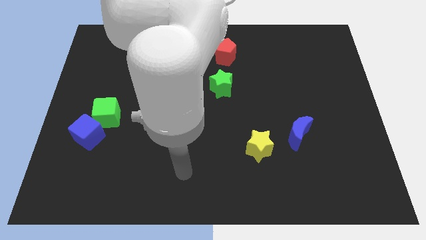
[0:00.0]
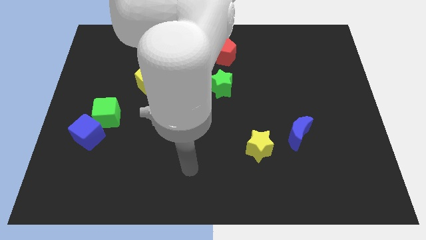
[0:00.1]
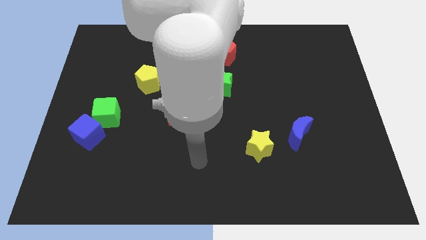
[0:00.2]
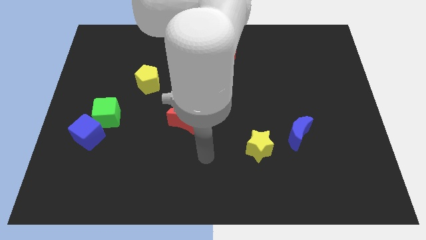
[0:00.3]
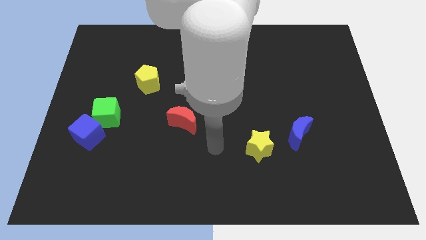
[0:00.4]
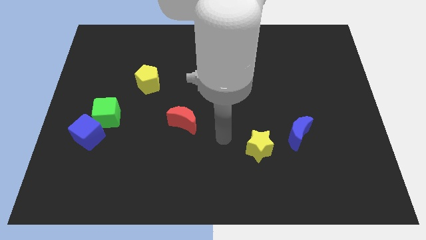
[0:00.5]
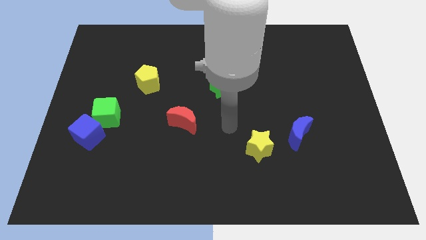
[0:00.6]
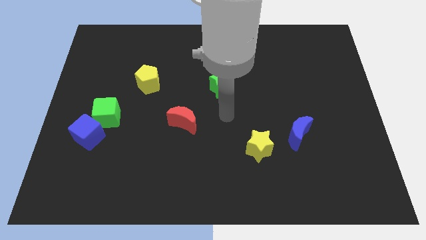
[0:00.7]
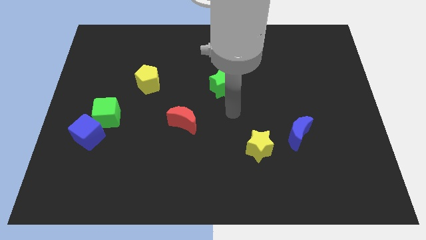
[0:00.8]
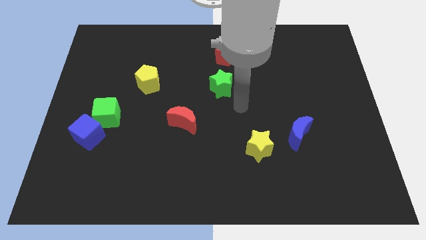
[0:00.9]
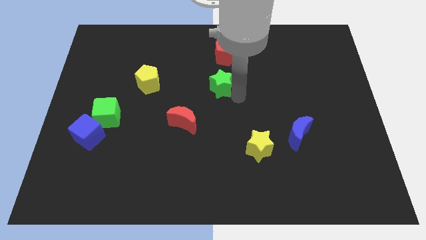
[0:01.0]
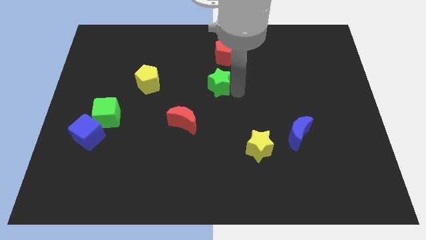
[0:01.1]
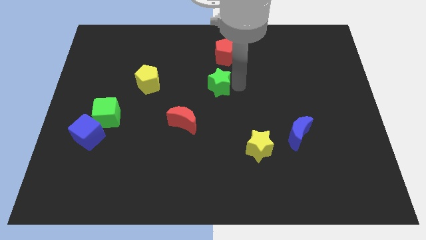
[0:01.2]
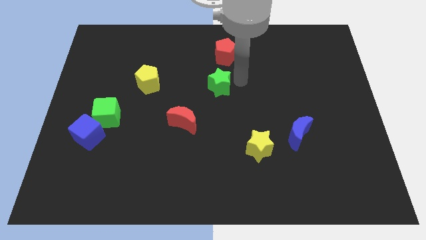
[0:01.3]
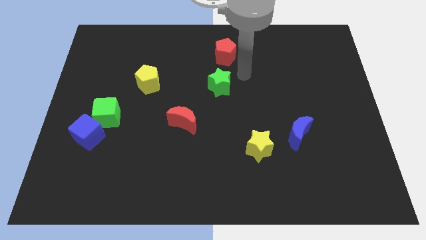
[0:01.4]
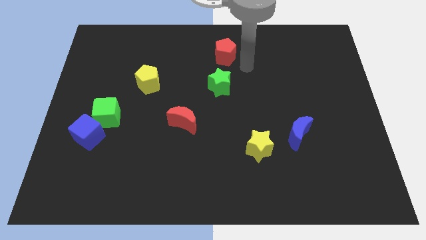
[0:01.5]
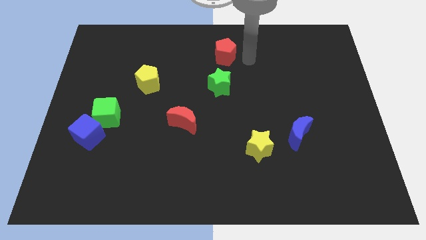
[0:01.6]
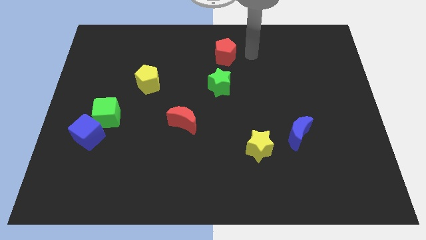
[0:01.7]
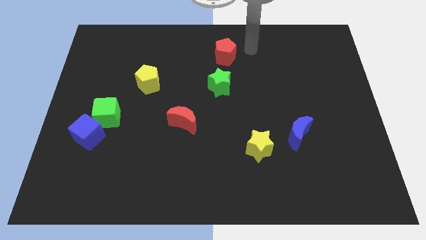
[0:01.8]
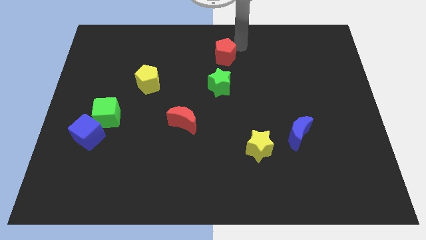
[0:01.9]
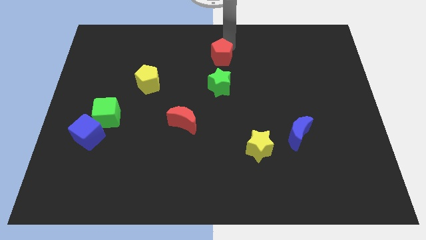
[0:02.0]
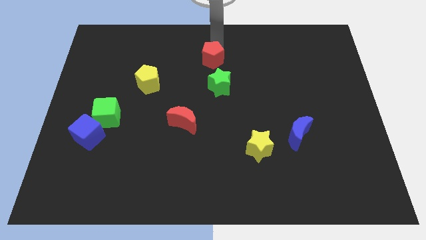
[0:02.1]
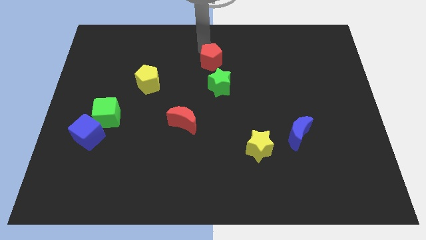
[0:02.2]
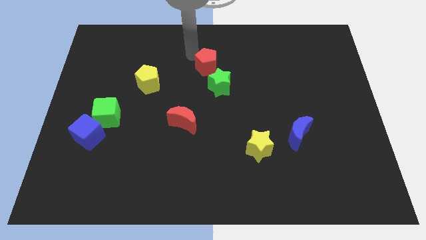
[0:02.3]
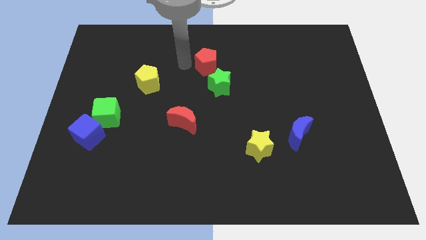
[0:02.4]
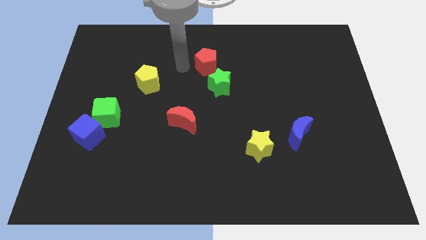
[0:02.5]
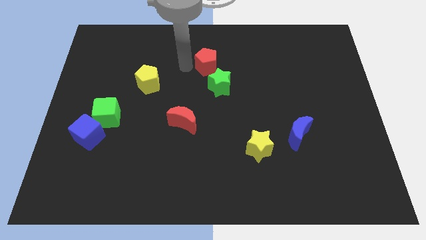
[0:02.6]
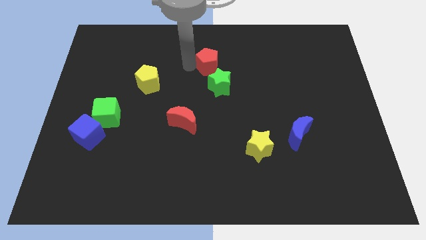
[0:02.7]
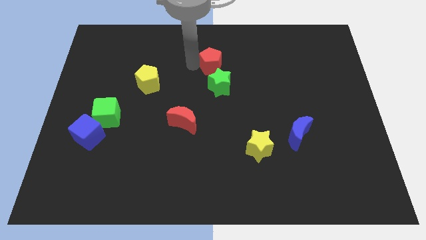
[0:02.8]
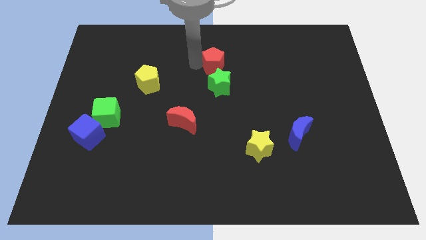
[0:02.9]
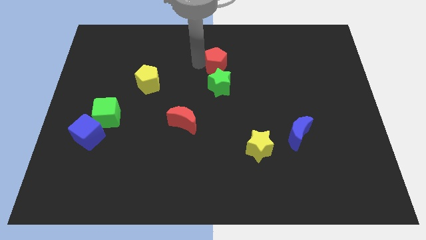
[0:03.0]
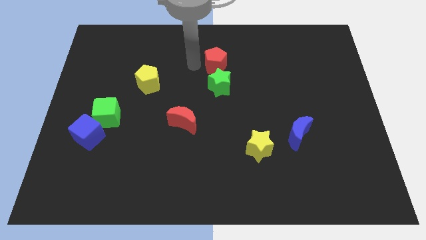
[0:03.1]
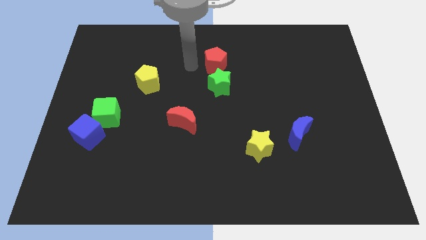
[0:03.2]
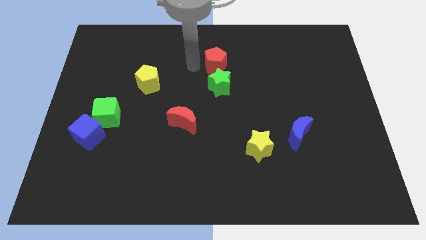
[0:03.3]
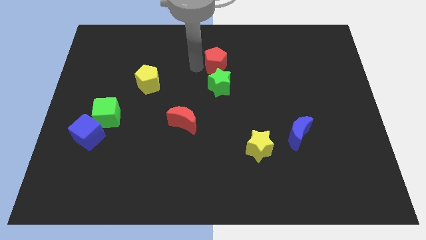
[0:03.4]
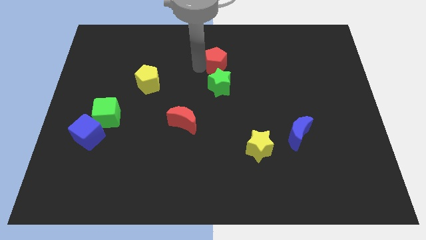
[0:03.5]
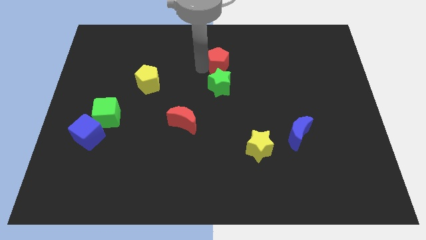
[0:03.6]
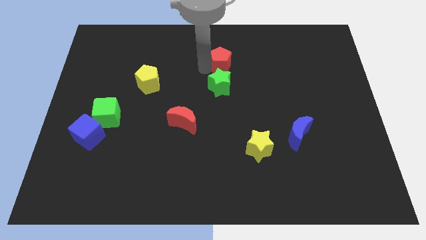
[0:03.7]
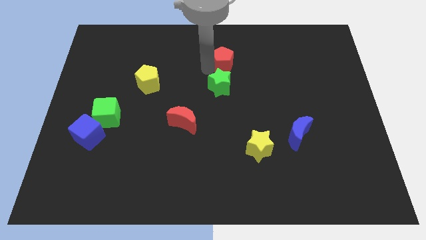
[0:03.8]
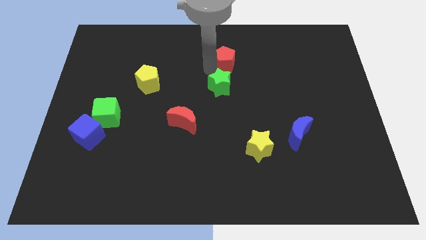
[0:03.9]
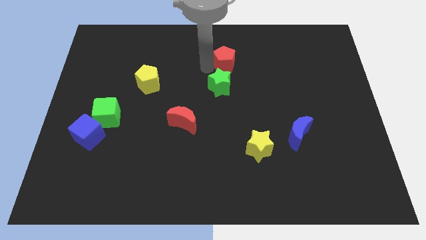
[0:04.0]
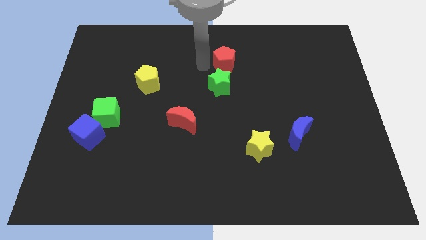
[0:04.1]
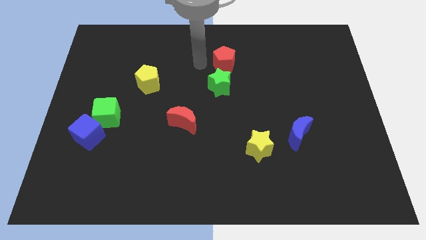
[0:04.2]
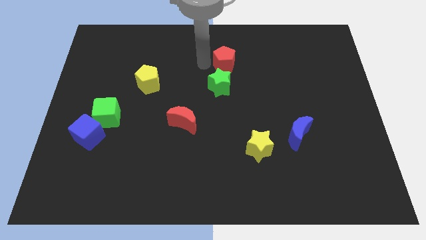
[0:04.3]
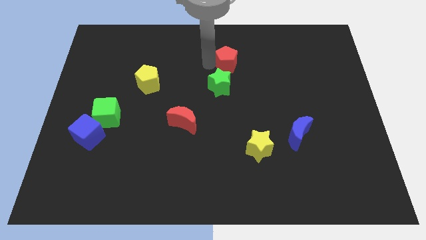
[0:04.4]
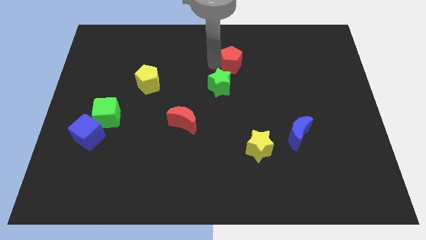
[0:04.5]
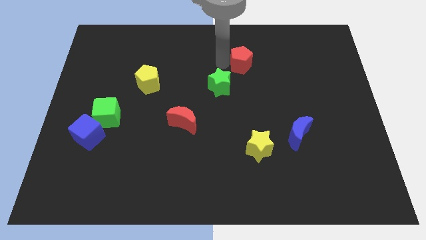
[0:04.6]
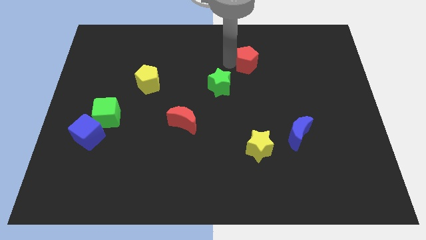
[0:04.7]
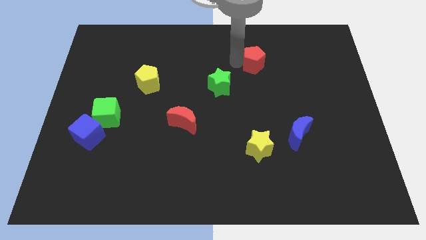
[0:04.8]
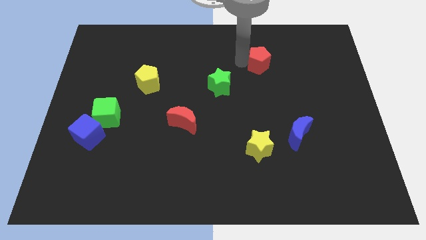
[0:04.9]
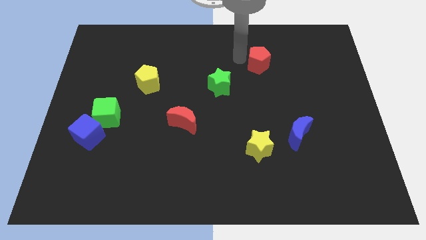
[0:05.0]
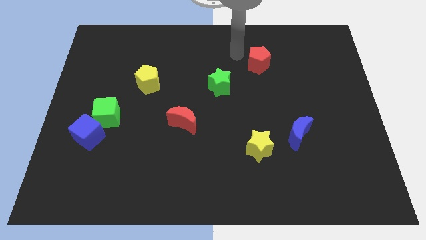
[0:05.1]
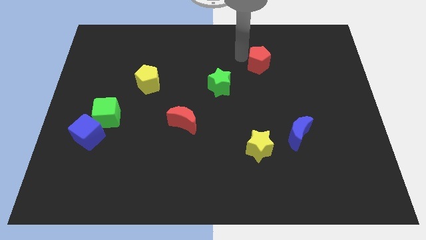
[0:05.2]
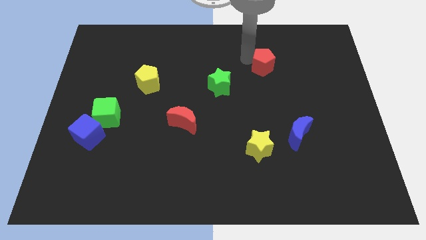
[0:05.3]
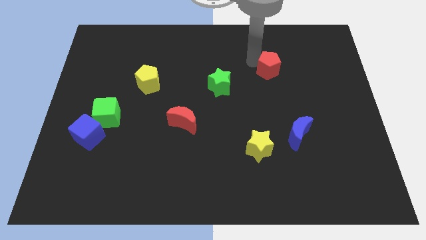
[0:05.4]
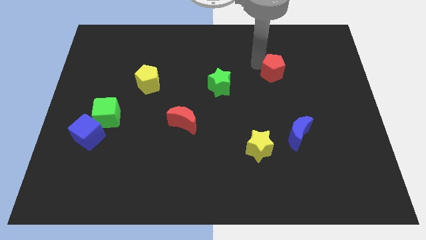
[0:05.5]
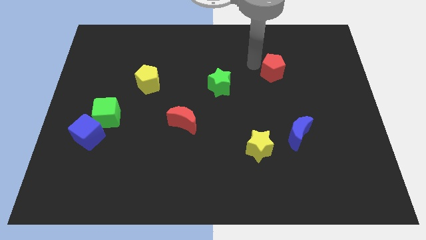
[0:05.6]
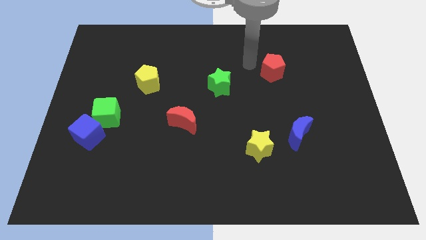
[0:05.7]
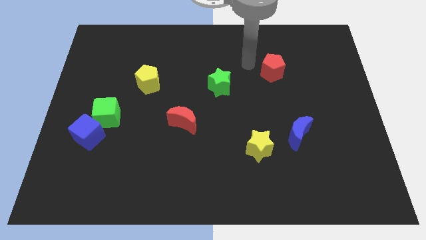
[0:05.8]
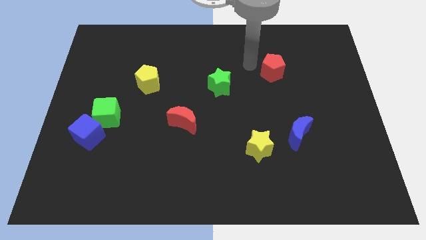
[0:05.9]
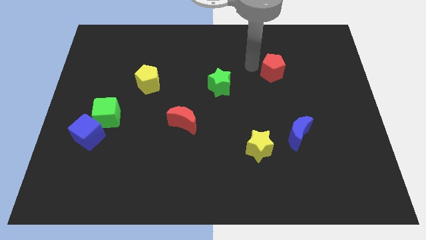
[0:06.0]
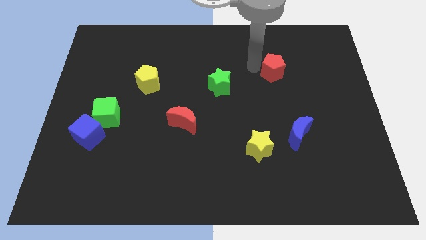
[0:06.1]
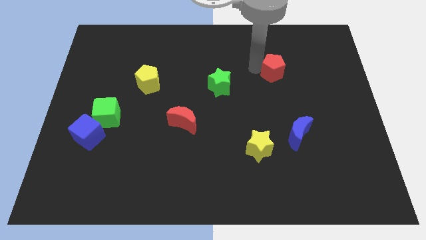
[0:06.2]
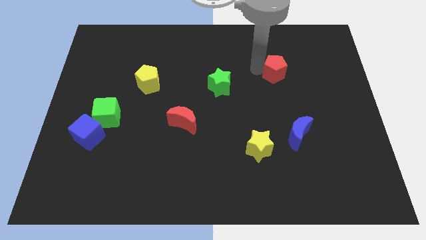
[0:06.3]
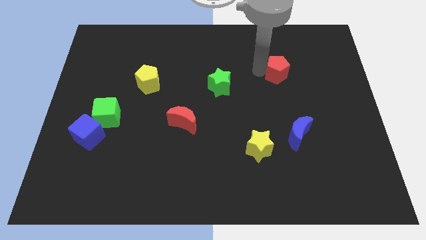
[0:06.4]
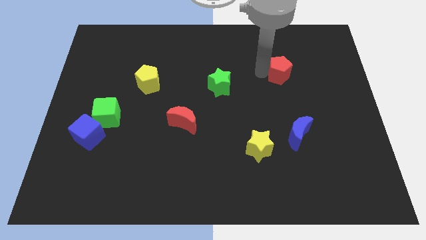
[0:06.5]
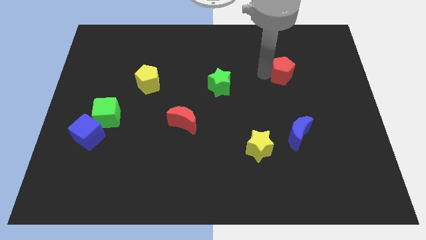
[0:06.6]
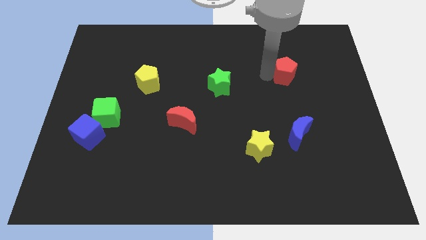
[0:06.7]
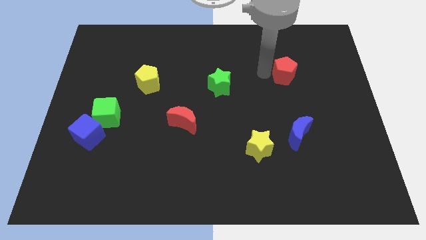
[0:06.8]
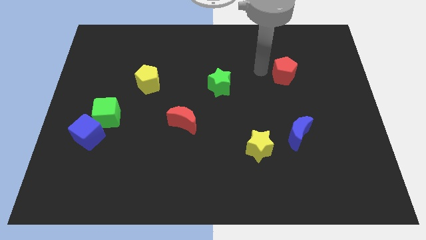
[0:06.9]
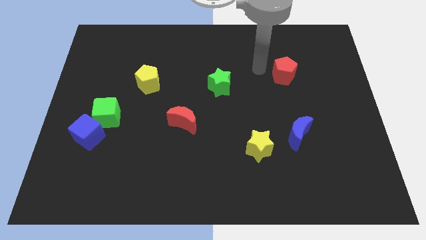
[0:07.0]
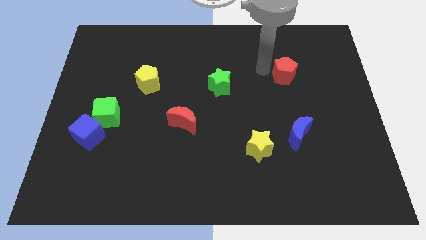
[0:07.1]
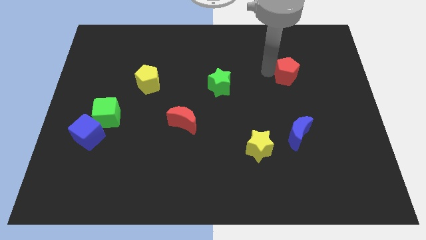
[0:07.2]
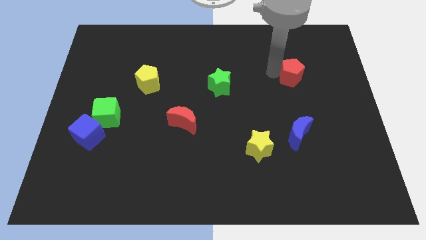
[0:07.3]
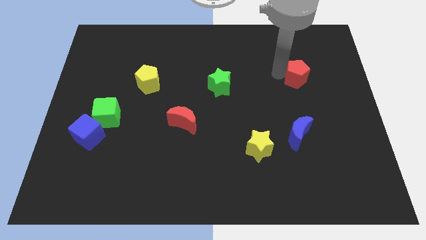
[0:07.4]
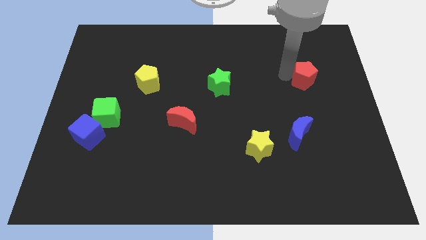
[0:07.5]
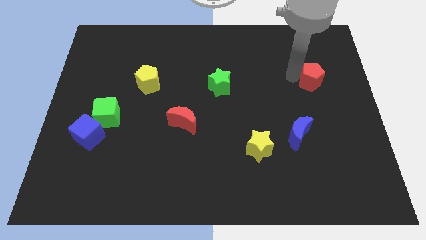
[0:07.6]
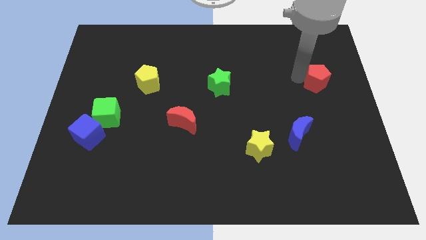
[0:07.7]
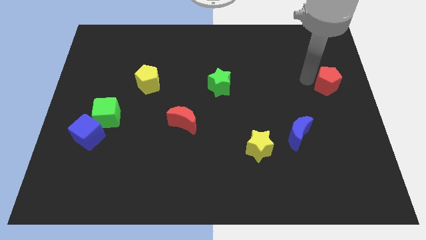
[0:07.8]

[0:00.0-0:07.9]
move the red pentagon to the right side of the board
